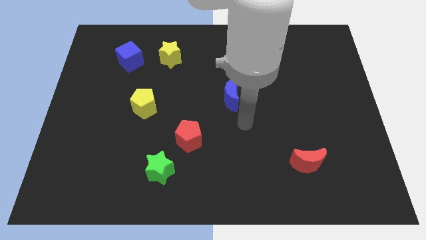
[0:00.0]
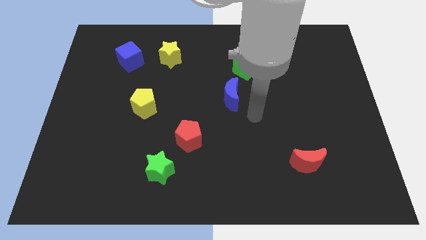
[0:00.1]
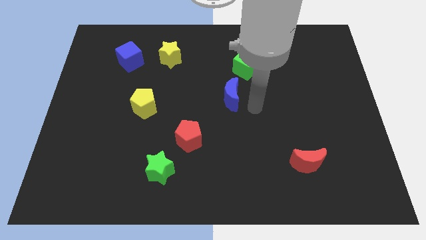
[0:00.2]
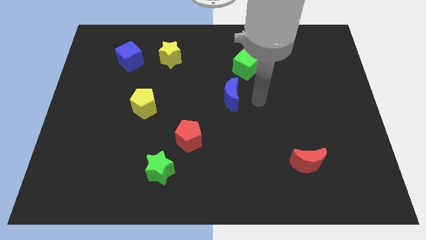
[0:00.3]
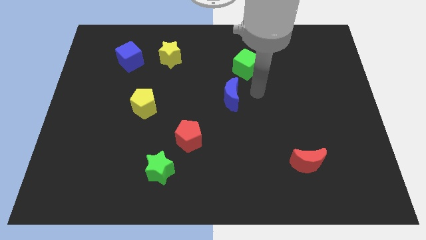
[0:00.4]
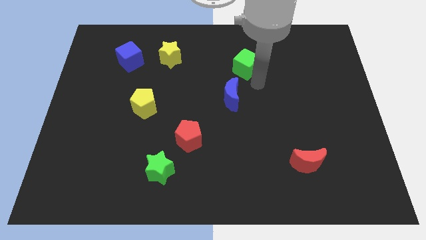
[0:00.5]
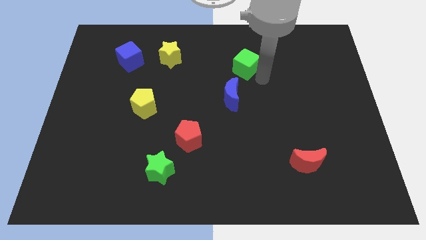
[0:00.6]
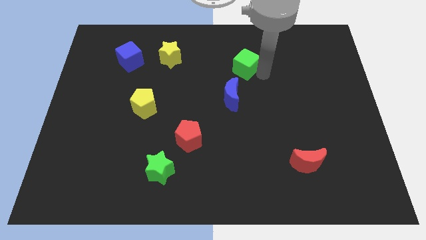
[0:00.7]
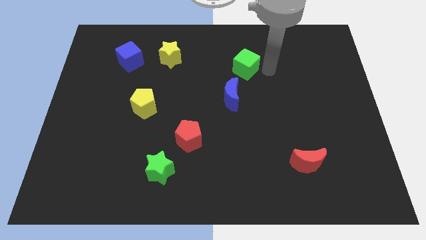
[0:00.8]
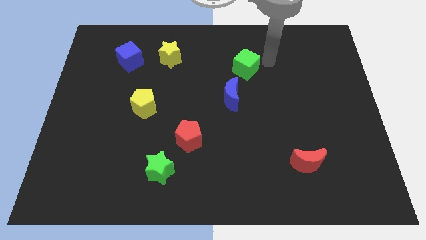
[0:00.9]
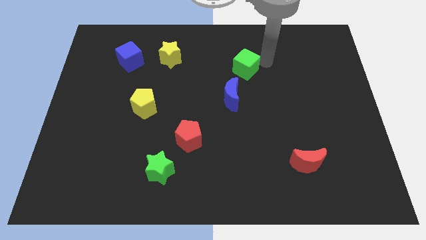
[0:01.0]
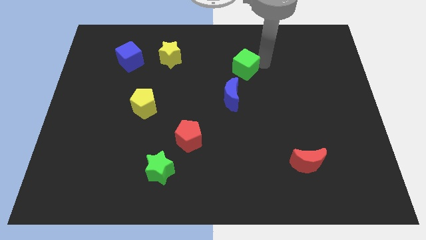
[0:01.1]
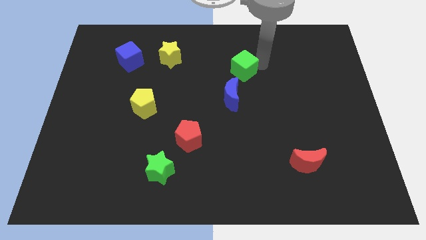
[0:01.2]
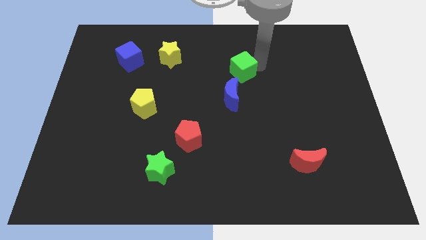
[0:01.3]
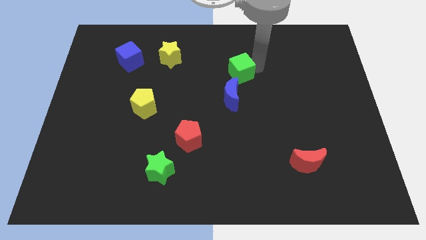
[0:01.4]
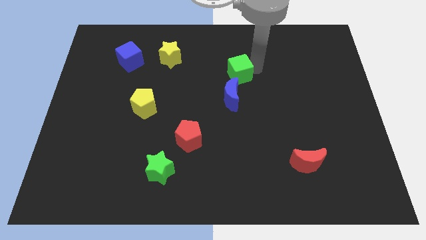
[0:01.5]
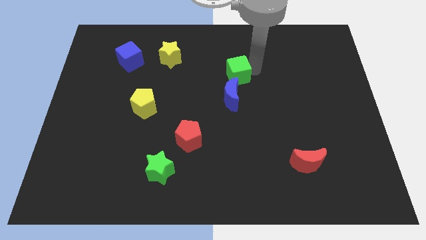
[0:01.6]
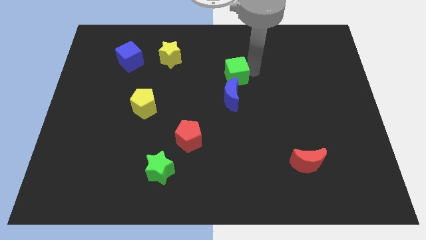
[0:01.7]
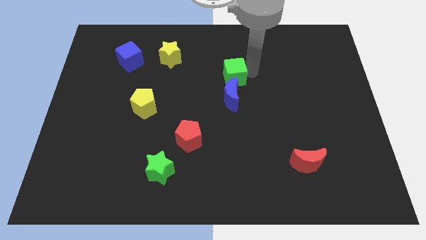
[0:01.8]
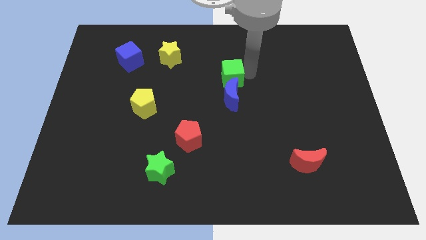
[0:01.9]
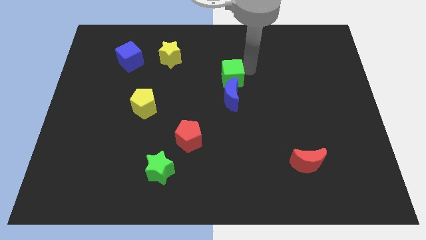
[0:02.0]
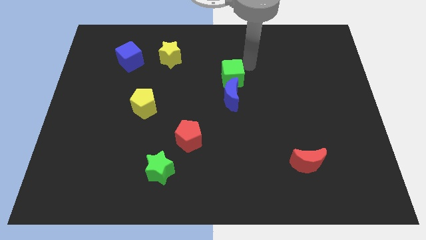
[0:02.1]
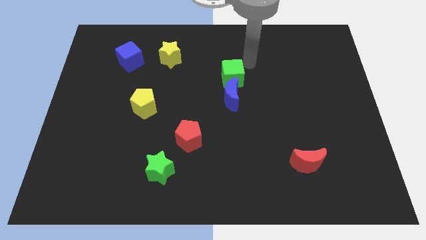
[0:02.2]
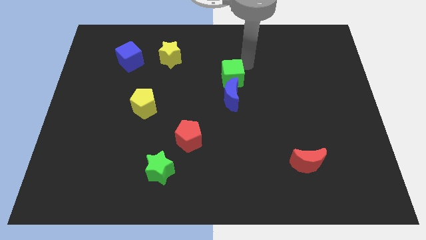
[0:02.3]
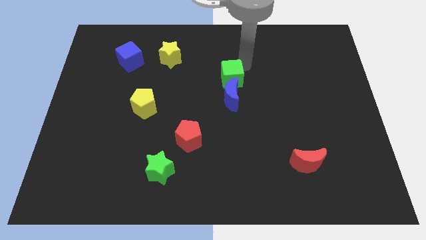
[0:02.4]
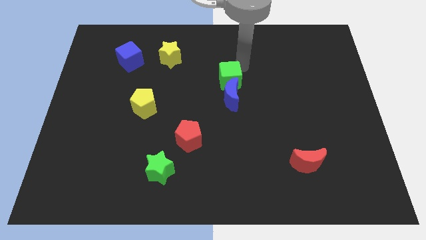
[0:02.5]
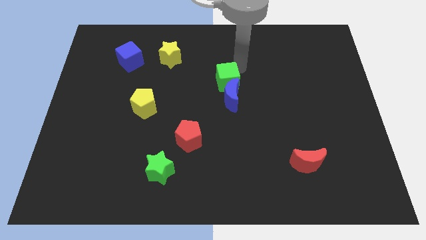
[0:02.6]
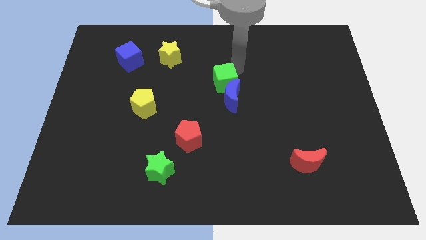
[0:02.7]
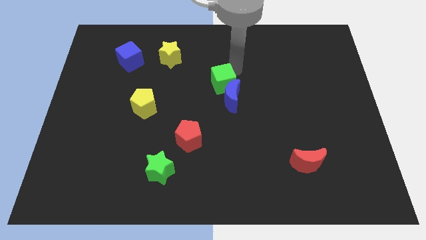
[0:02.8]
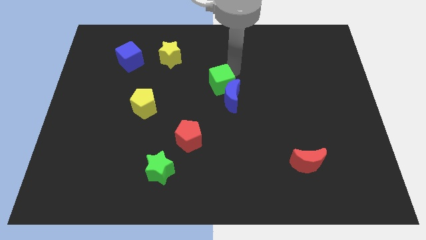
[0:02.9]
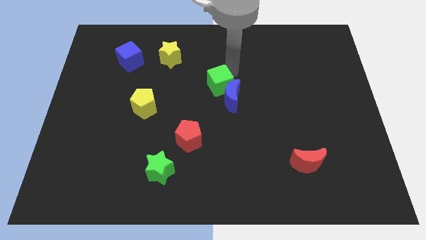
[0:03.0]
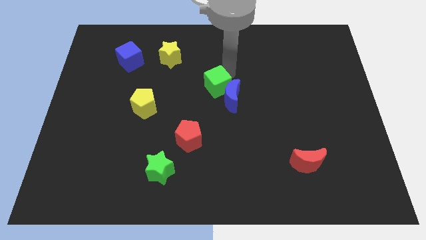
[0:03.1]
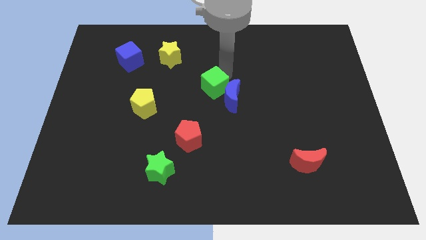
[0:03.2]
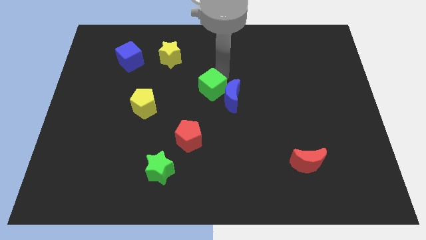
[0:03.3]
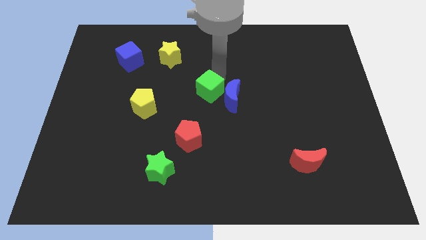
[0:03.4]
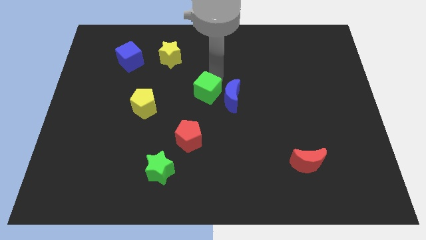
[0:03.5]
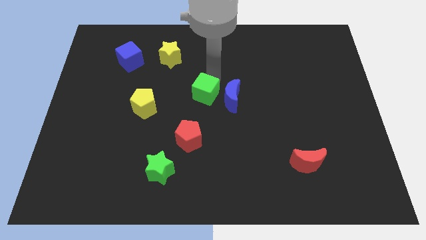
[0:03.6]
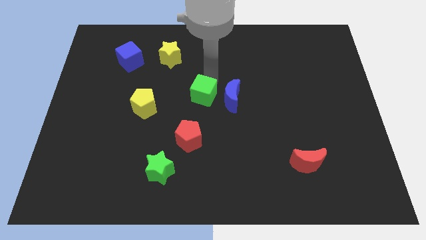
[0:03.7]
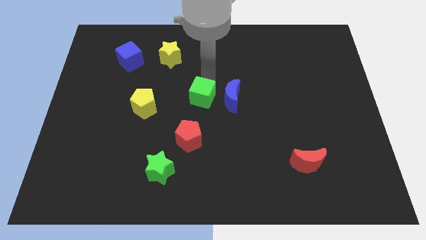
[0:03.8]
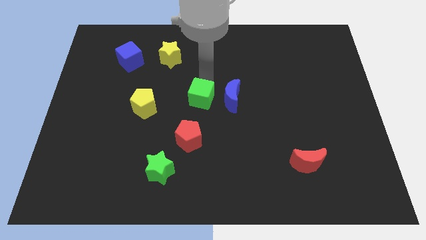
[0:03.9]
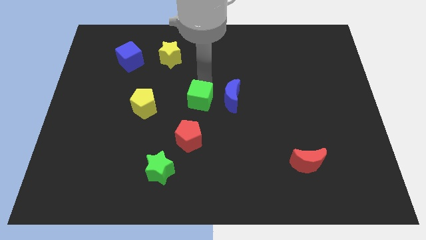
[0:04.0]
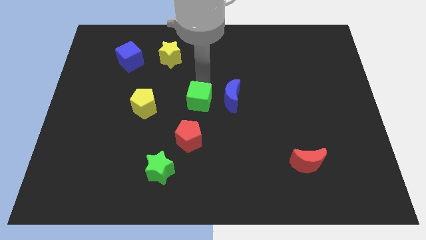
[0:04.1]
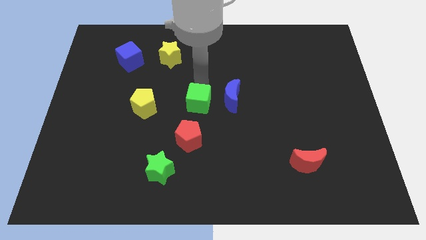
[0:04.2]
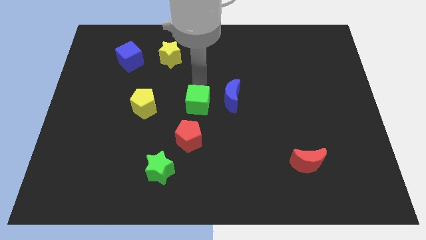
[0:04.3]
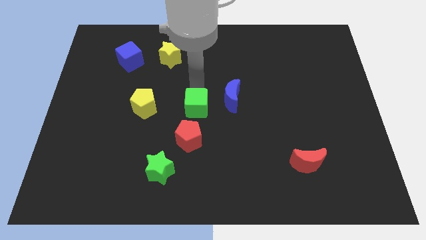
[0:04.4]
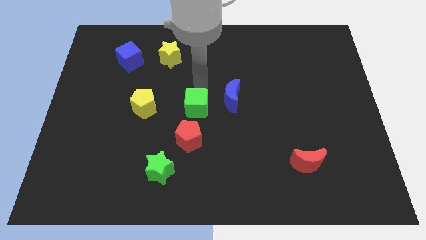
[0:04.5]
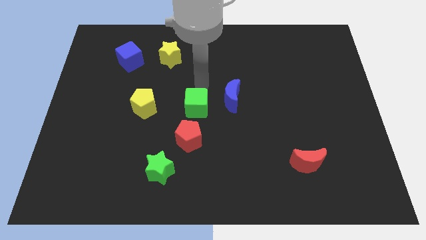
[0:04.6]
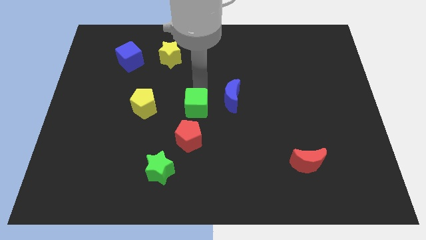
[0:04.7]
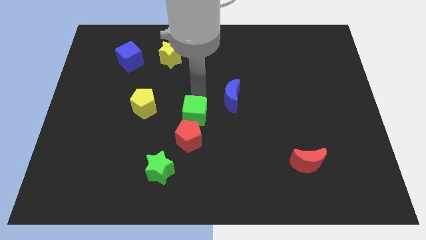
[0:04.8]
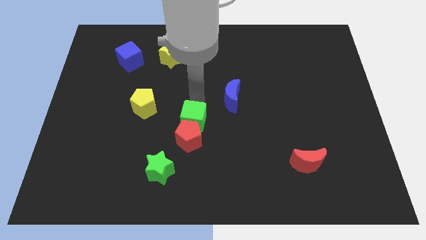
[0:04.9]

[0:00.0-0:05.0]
slide the green cube towards the red pentagon

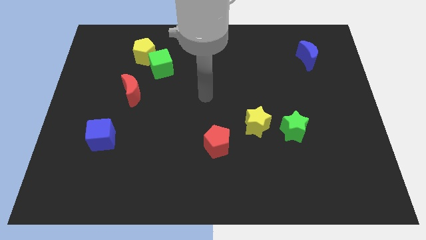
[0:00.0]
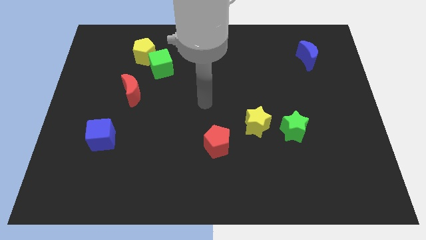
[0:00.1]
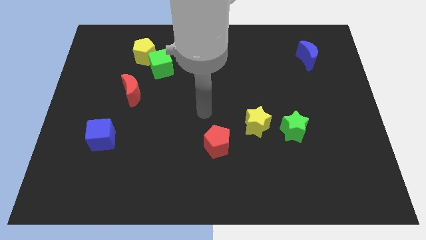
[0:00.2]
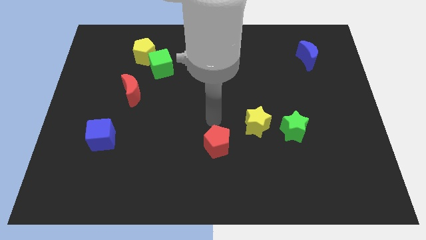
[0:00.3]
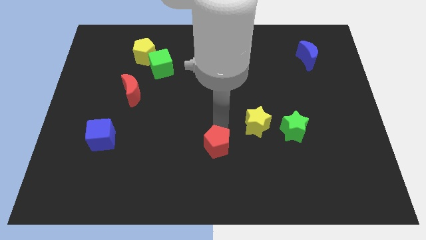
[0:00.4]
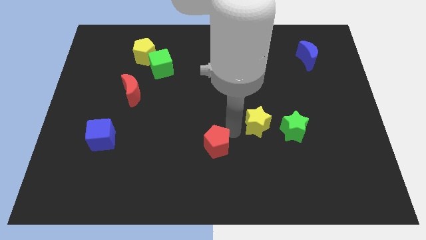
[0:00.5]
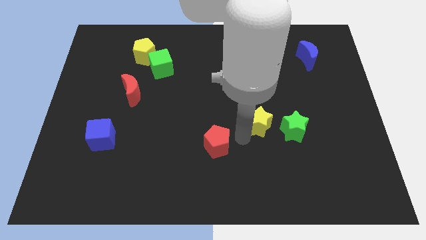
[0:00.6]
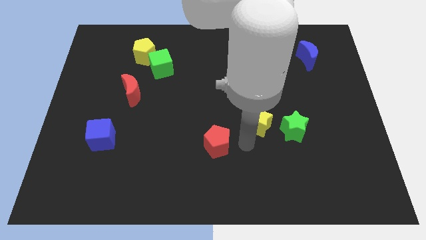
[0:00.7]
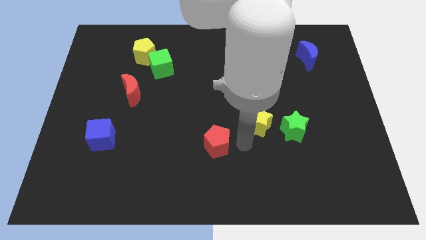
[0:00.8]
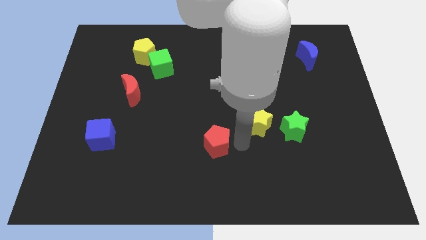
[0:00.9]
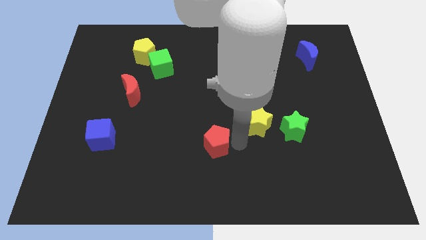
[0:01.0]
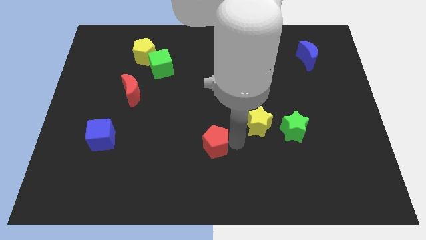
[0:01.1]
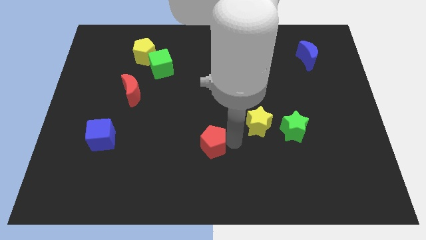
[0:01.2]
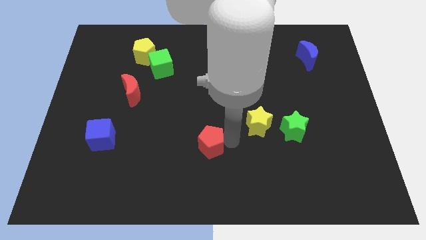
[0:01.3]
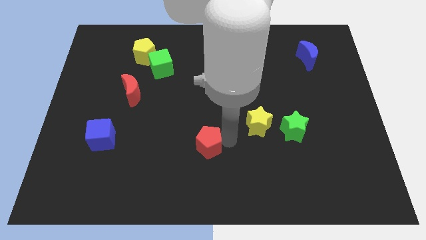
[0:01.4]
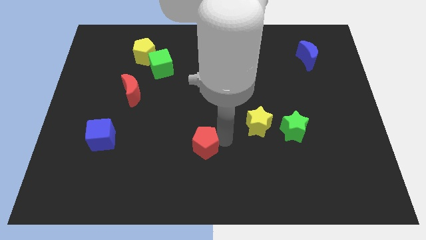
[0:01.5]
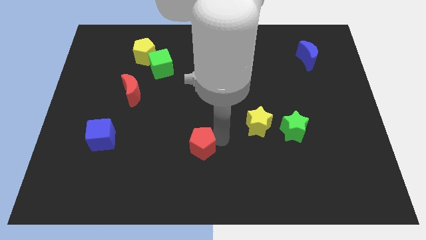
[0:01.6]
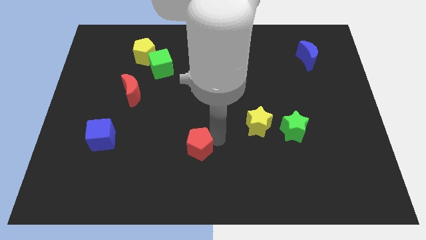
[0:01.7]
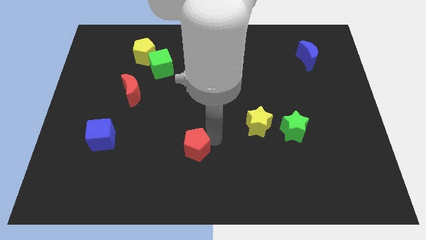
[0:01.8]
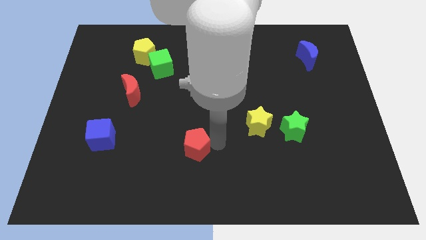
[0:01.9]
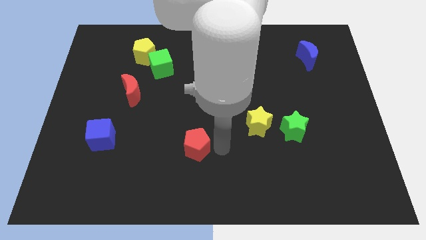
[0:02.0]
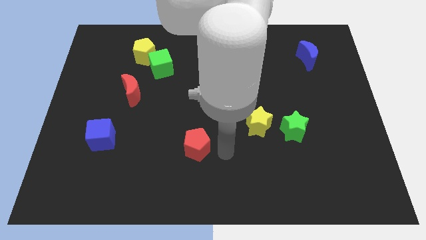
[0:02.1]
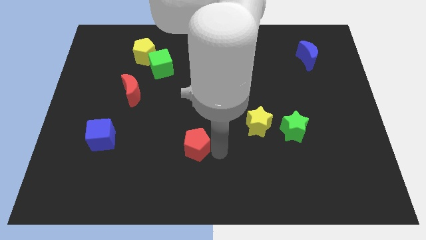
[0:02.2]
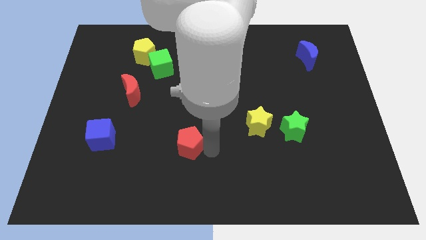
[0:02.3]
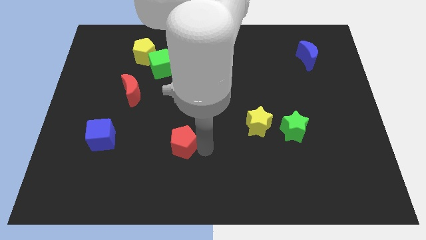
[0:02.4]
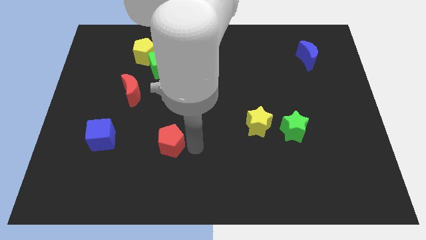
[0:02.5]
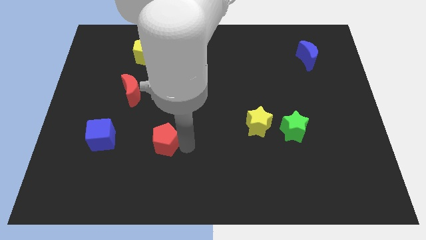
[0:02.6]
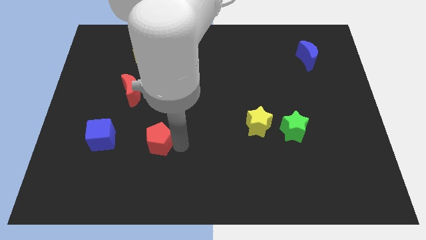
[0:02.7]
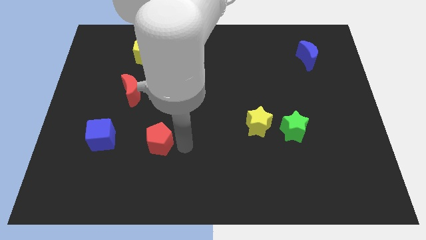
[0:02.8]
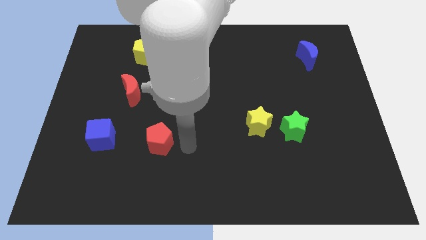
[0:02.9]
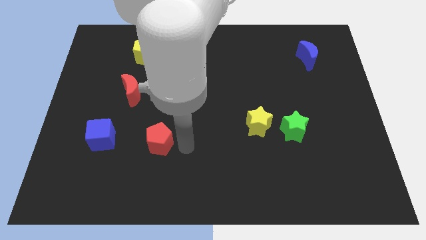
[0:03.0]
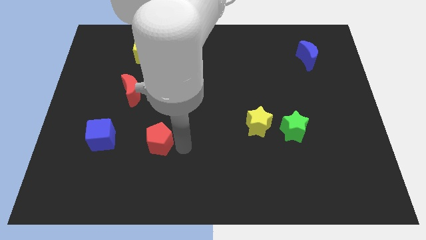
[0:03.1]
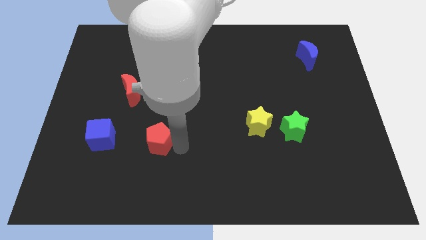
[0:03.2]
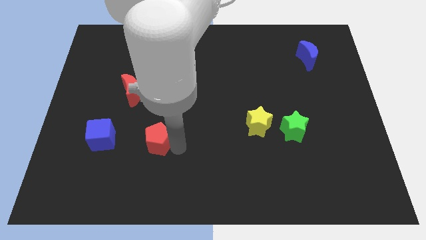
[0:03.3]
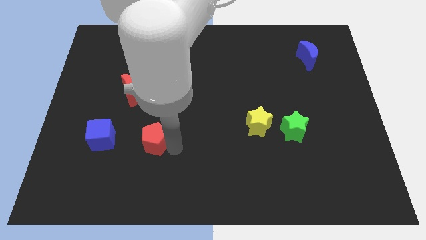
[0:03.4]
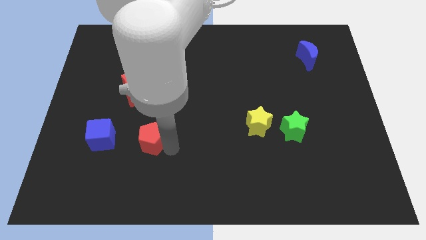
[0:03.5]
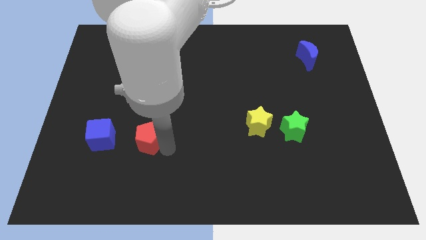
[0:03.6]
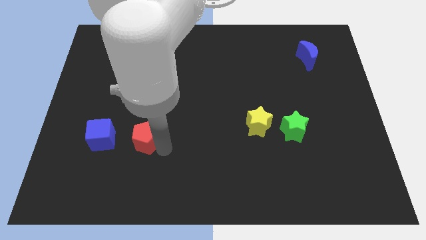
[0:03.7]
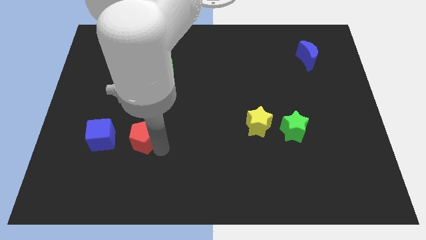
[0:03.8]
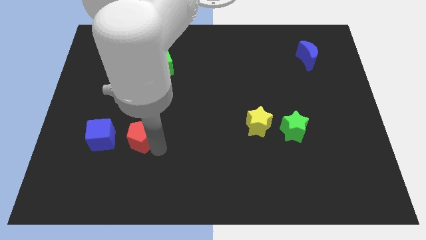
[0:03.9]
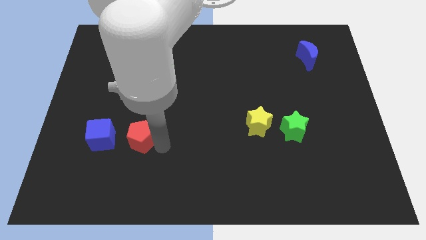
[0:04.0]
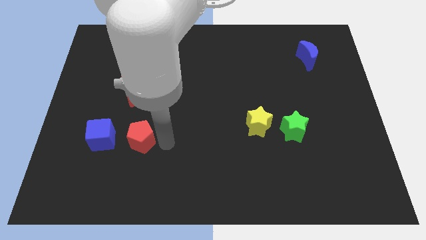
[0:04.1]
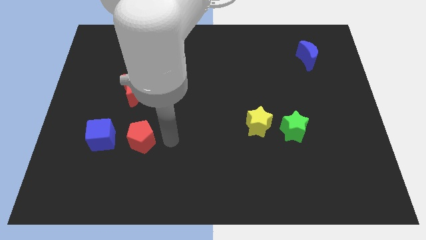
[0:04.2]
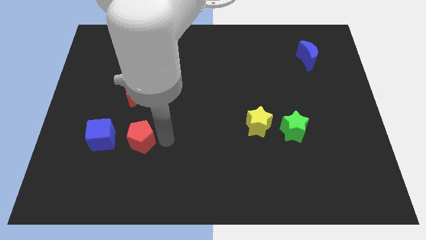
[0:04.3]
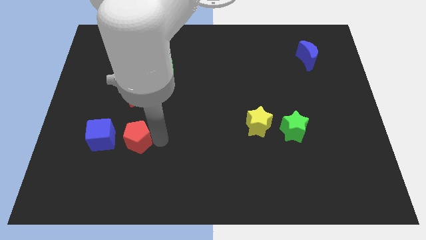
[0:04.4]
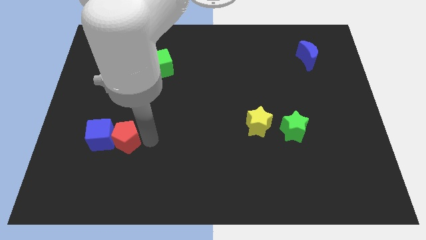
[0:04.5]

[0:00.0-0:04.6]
move the red pentagon to the blue cube
